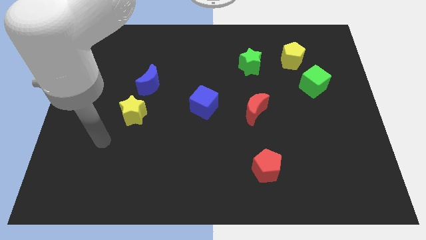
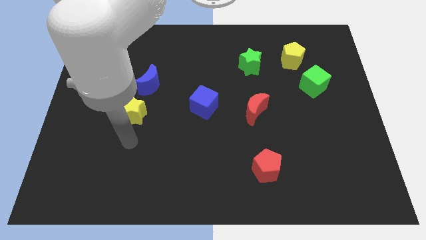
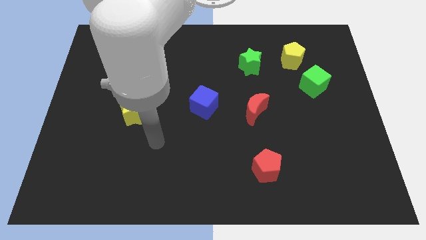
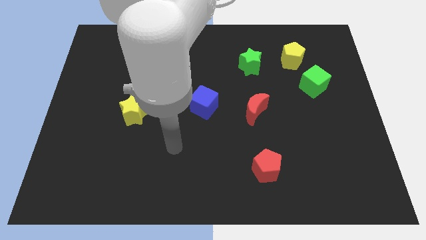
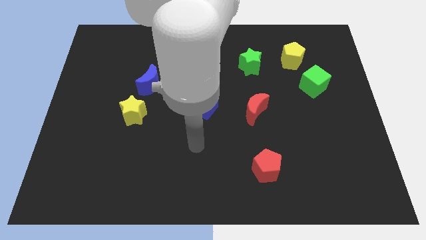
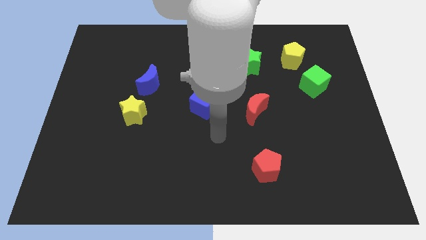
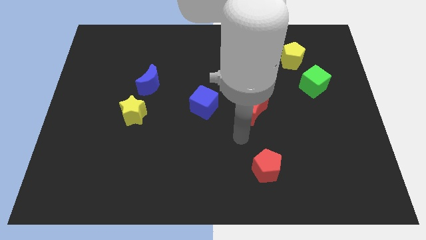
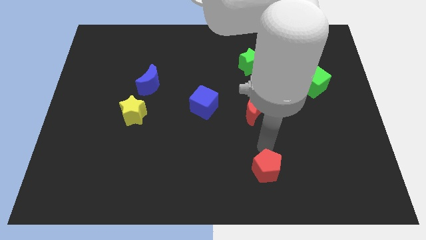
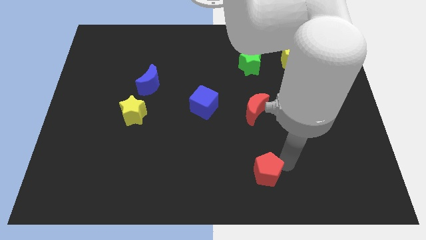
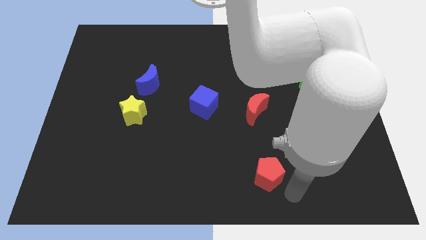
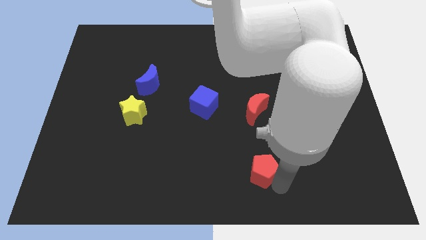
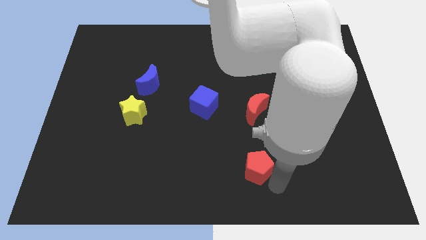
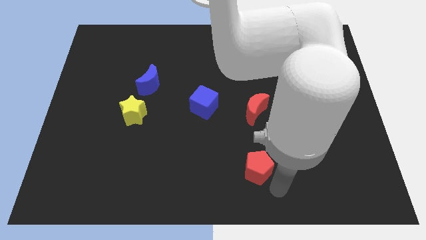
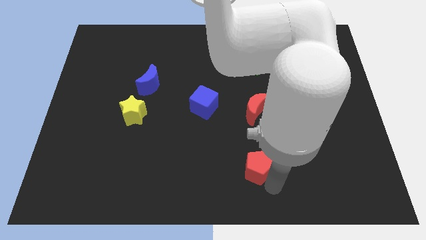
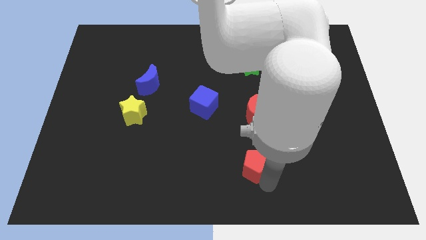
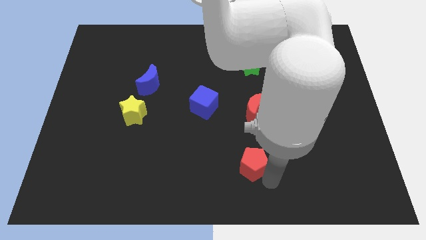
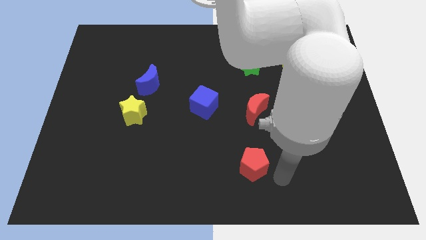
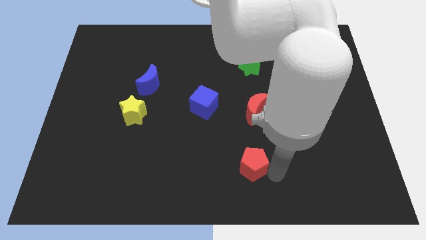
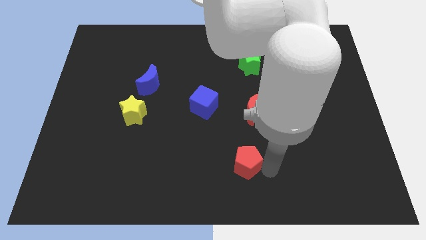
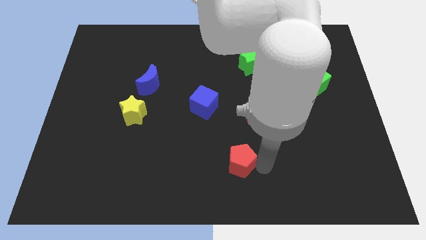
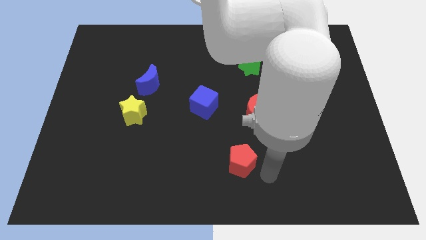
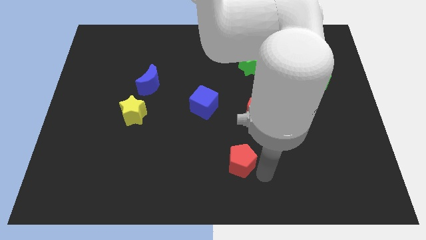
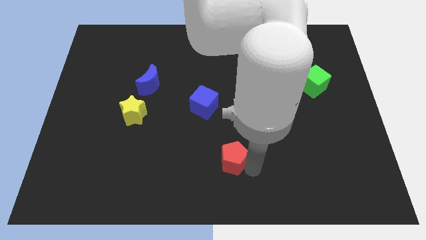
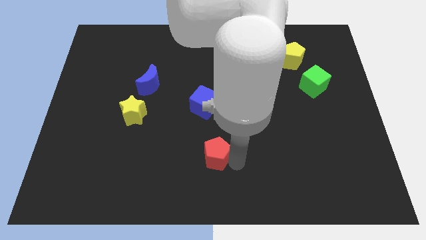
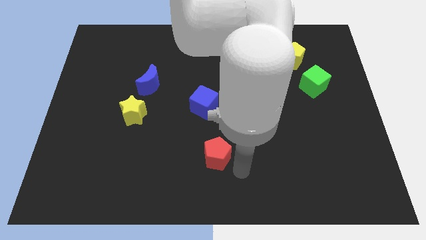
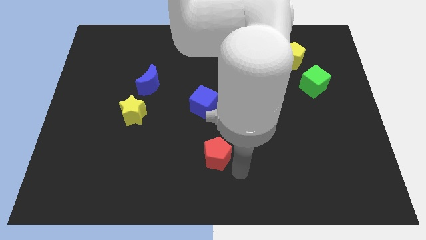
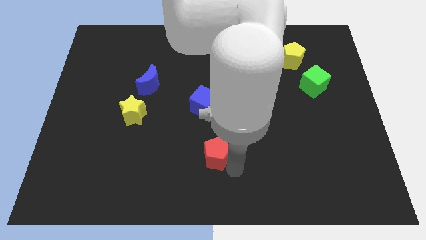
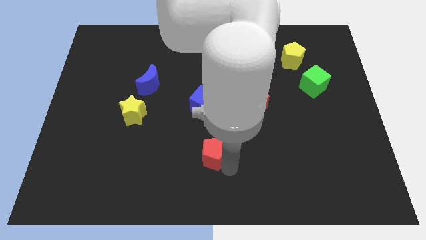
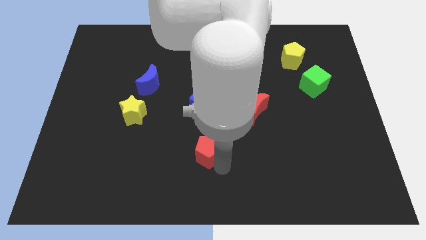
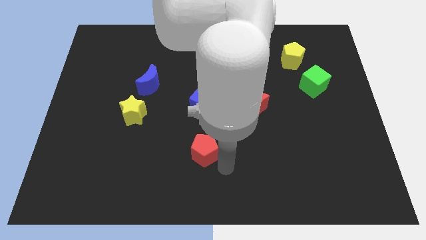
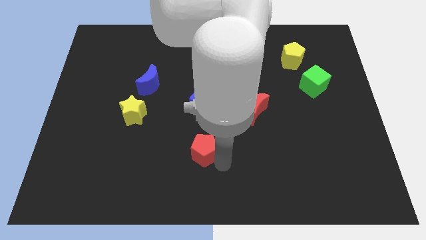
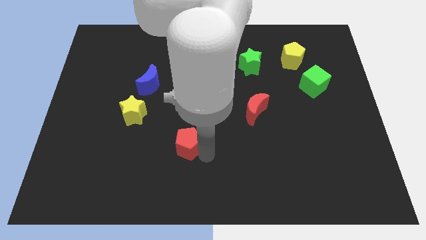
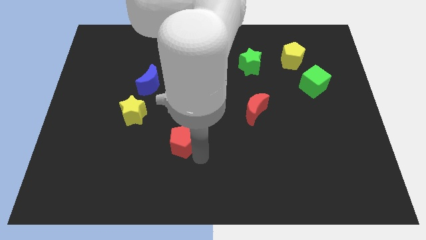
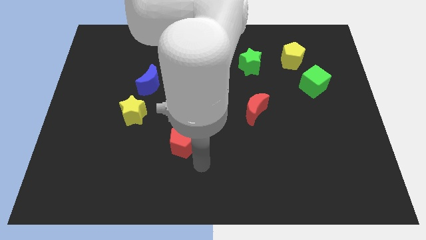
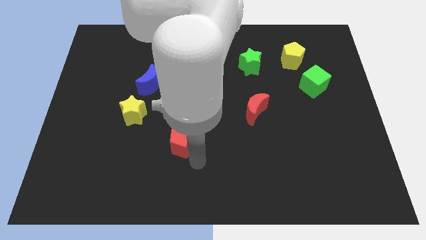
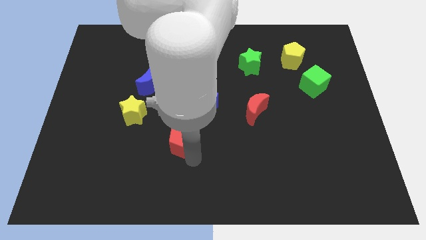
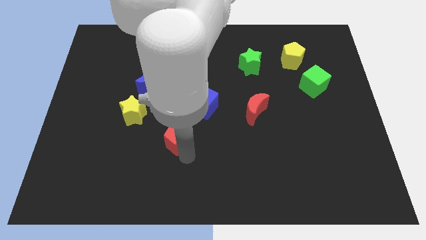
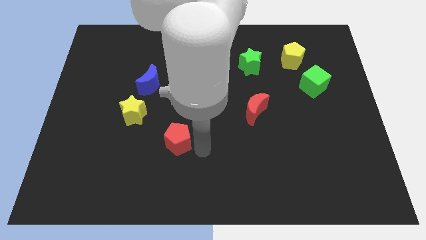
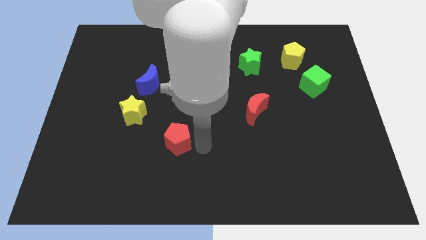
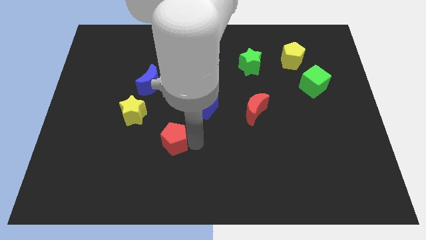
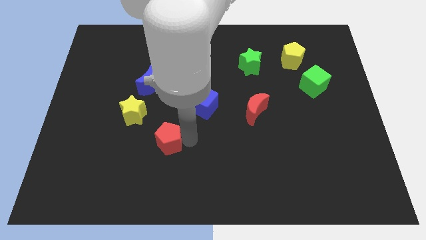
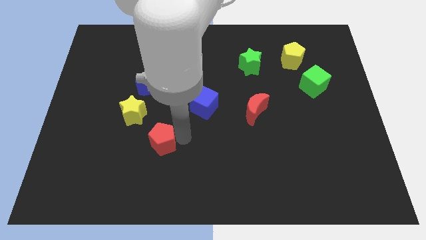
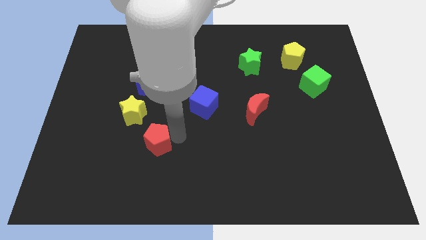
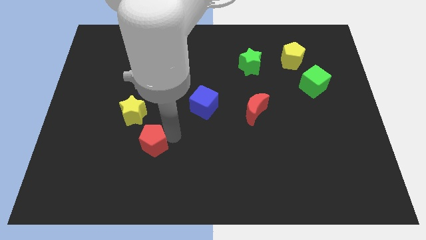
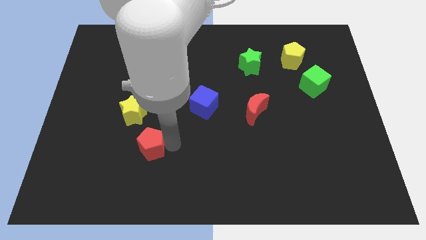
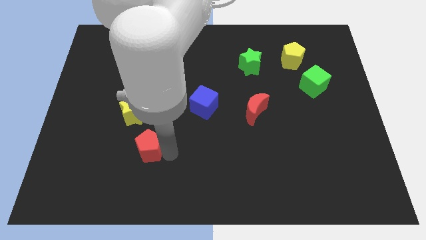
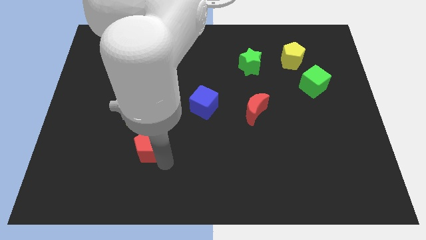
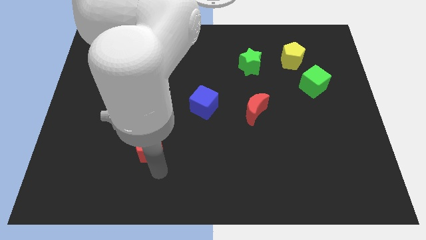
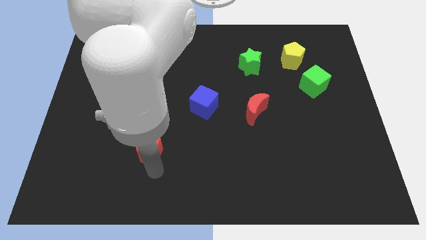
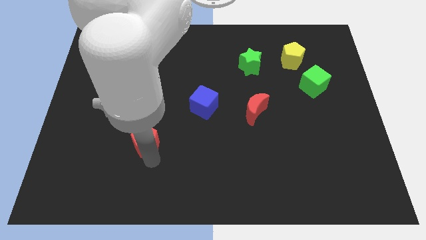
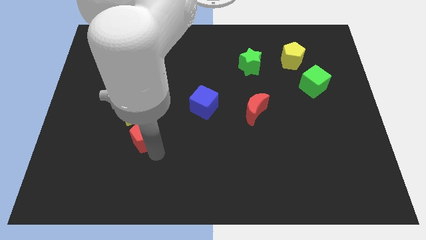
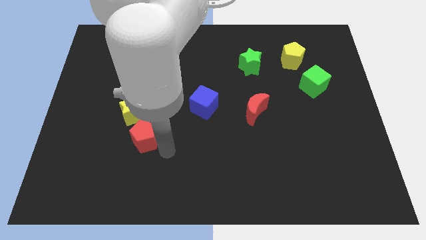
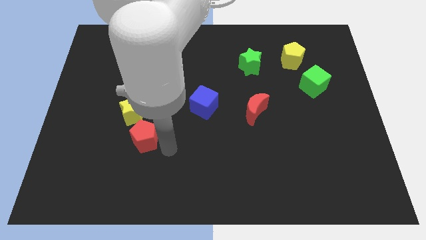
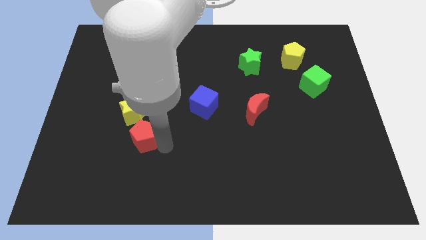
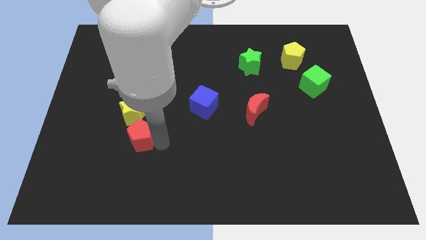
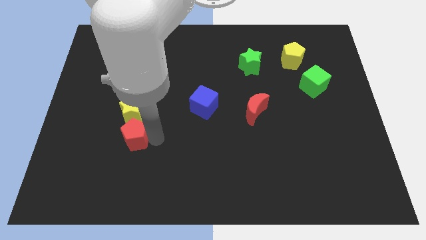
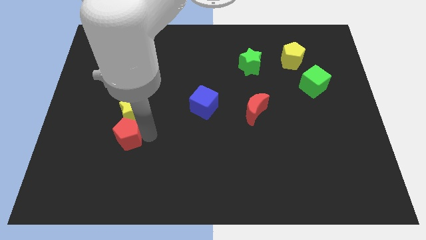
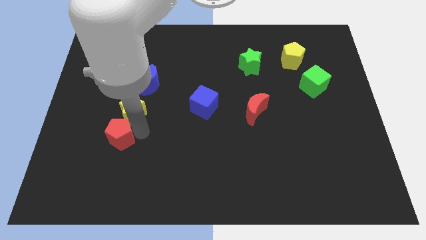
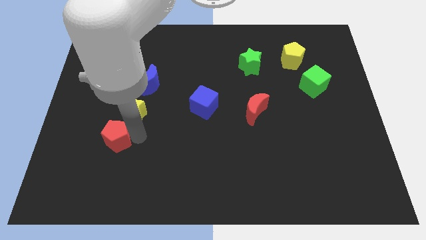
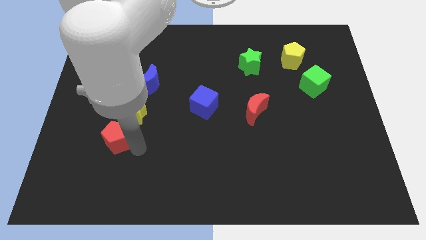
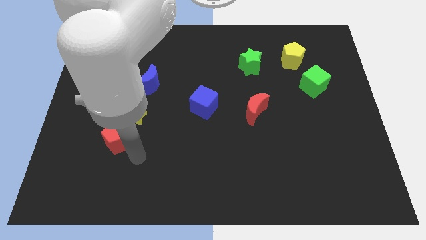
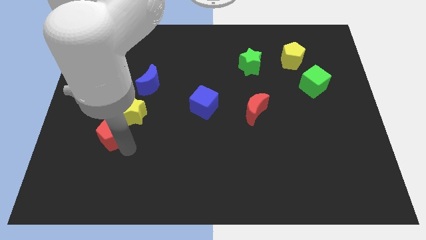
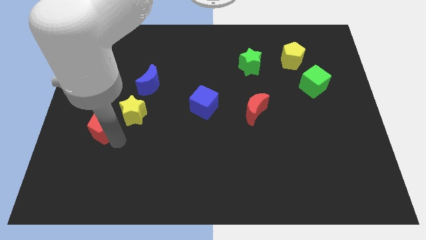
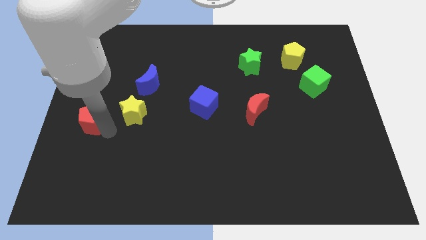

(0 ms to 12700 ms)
slide the red pentagon to the center left

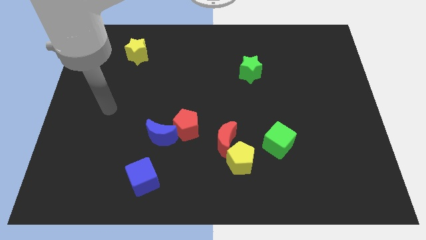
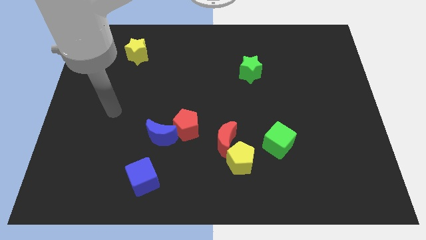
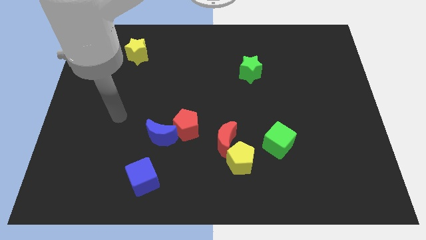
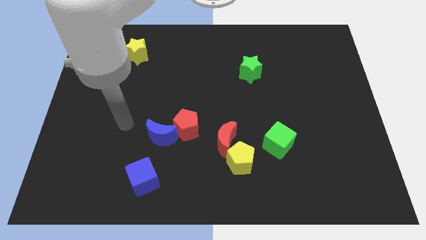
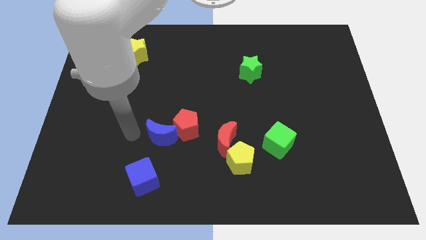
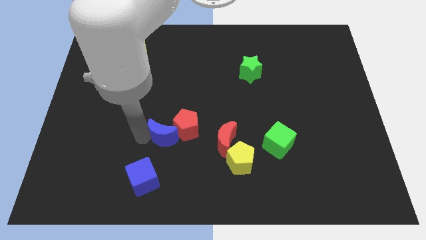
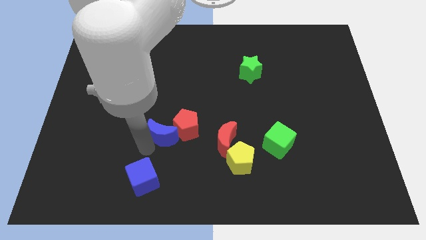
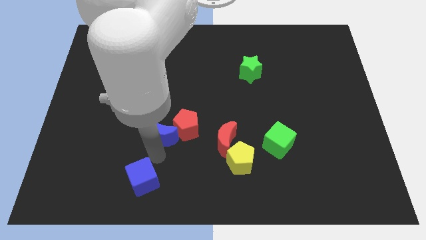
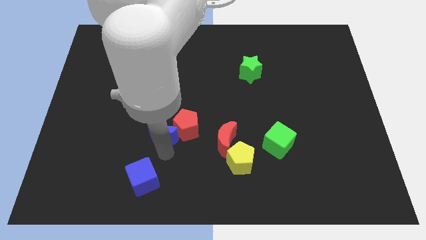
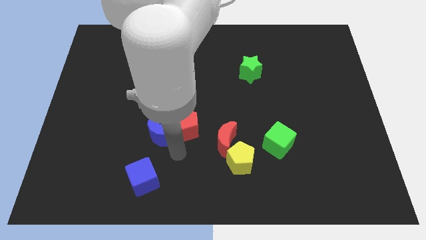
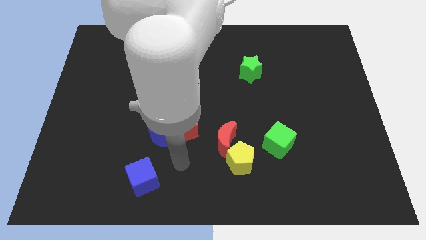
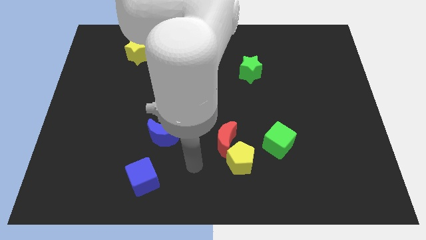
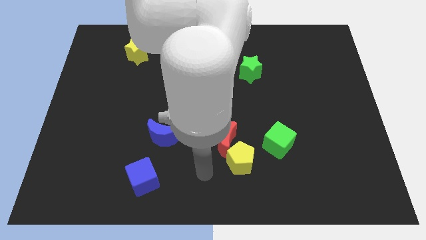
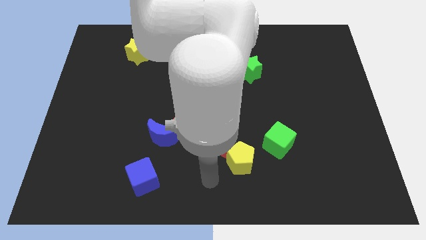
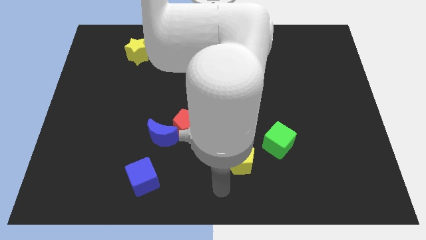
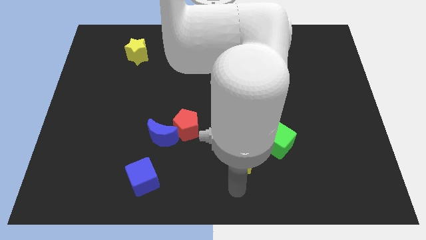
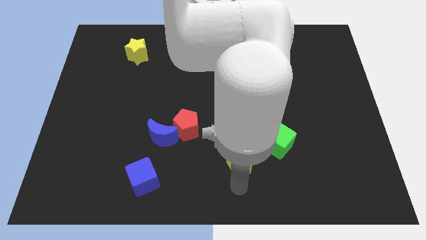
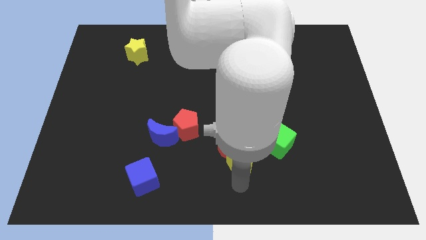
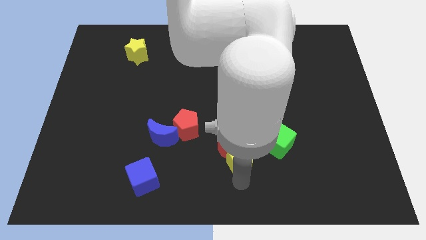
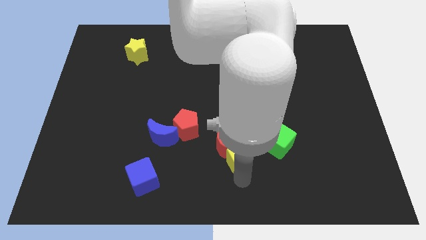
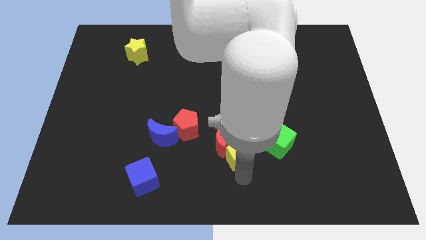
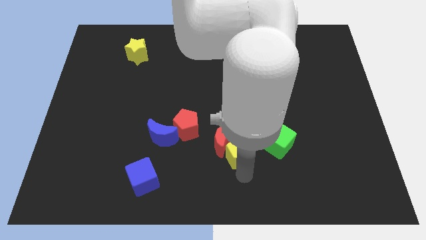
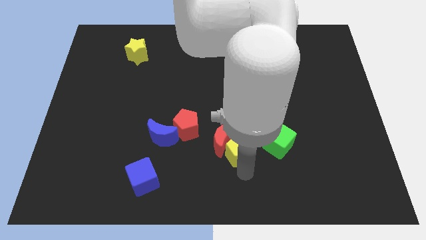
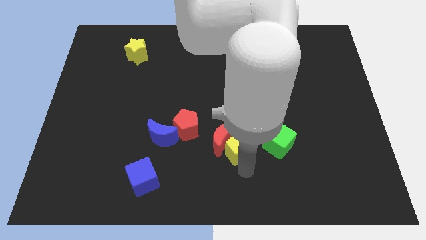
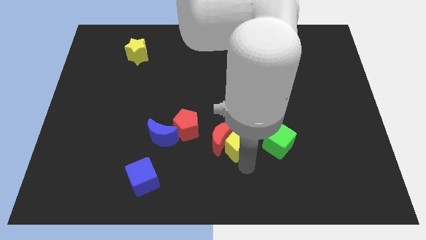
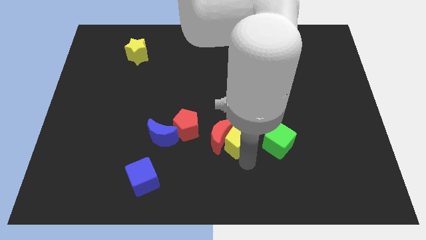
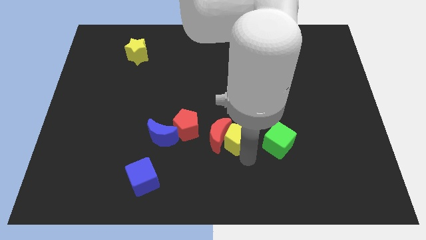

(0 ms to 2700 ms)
put the yellow pentagon to the middle
